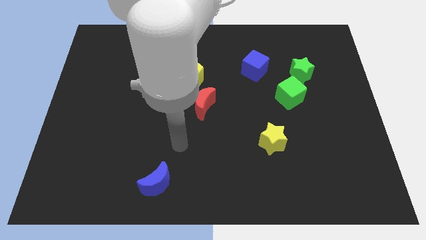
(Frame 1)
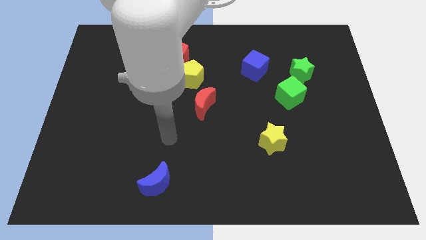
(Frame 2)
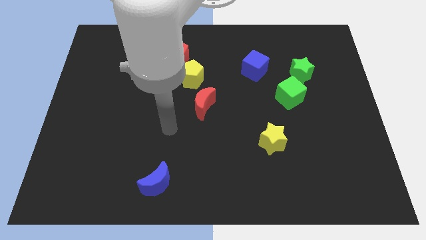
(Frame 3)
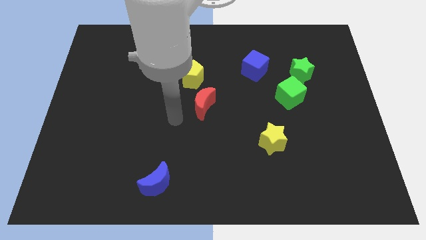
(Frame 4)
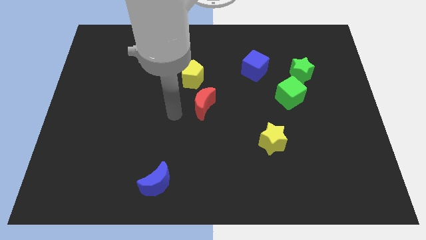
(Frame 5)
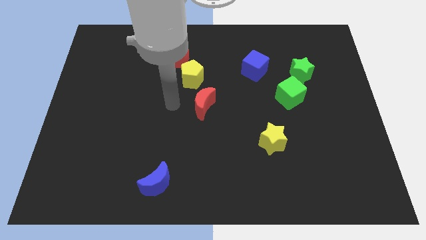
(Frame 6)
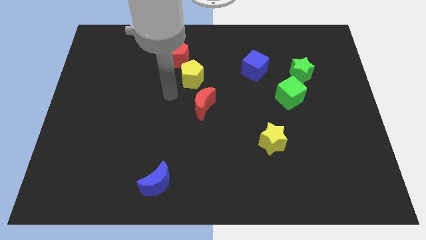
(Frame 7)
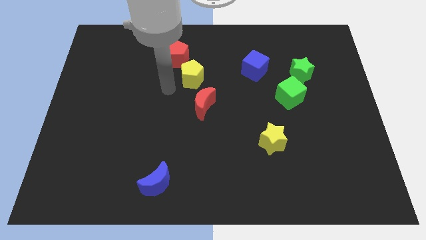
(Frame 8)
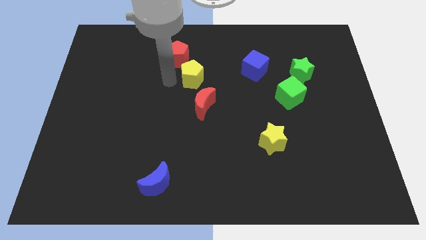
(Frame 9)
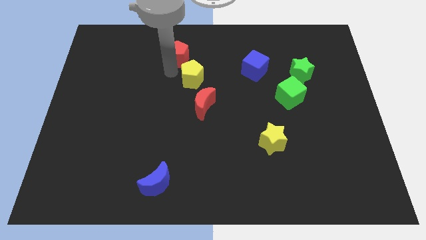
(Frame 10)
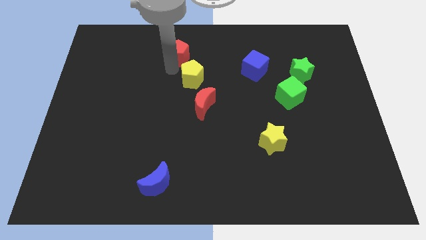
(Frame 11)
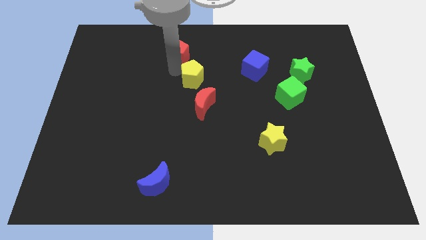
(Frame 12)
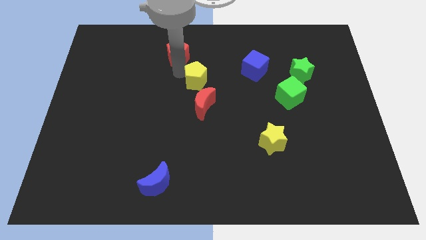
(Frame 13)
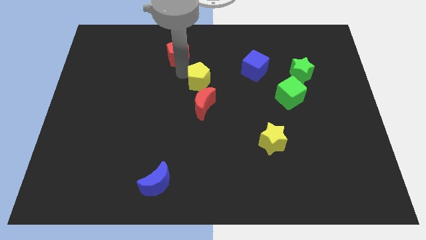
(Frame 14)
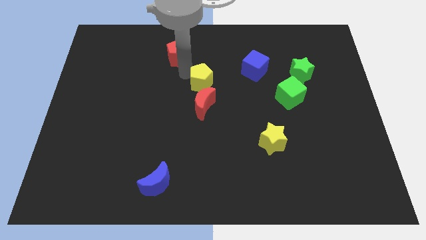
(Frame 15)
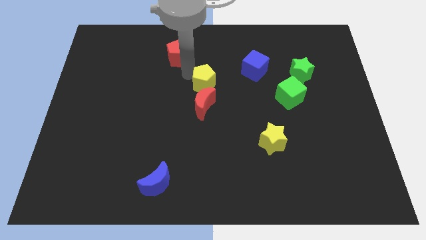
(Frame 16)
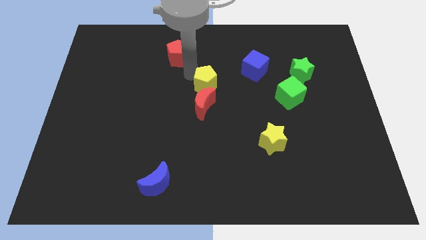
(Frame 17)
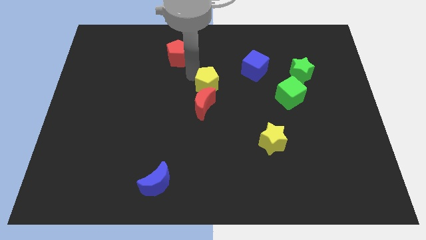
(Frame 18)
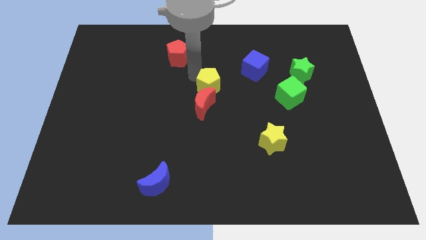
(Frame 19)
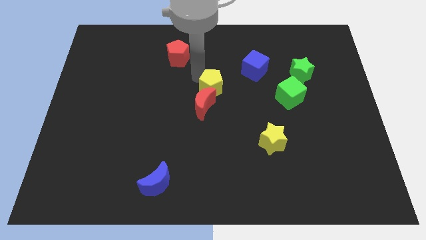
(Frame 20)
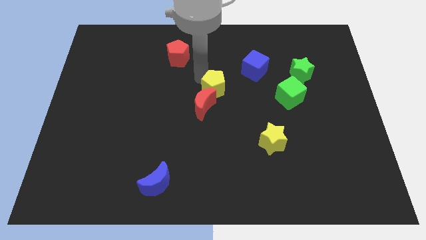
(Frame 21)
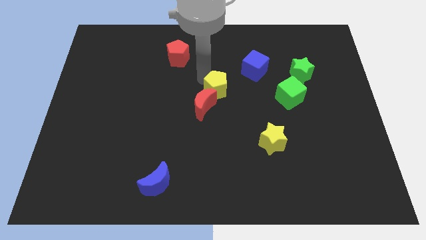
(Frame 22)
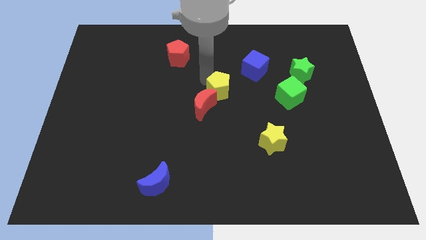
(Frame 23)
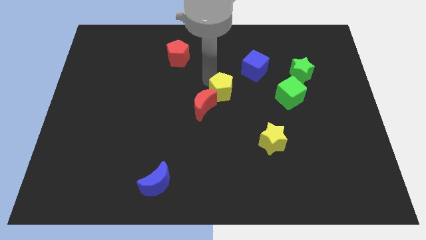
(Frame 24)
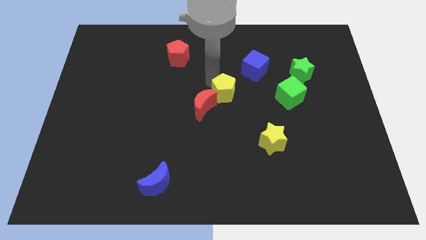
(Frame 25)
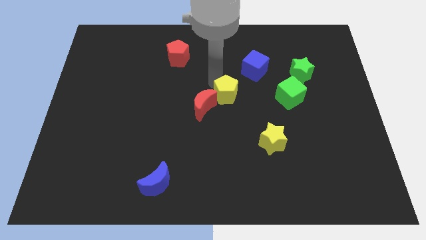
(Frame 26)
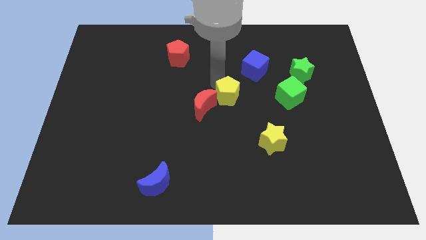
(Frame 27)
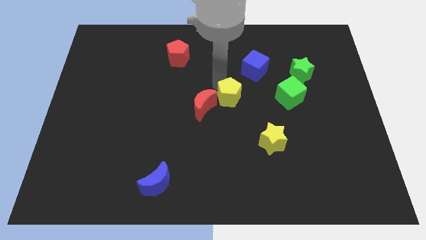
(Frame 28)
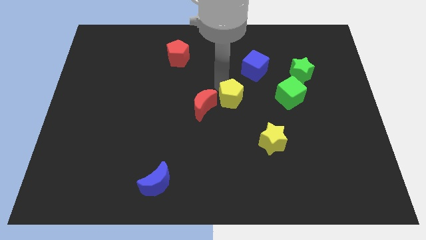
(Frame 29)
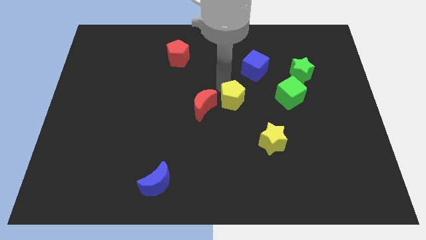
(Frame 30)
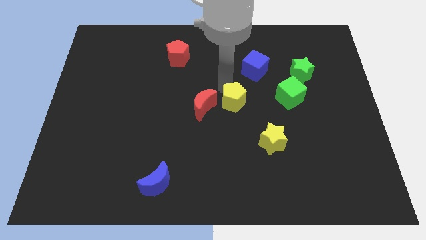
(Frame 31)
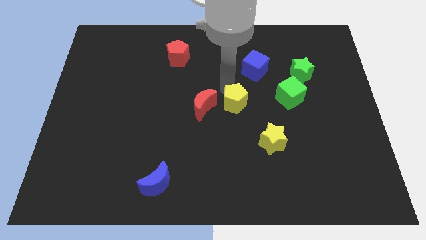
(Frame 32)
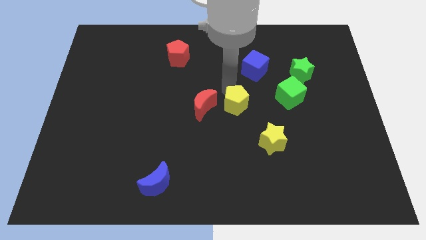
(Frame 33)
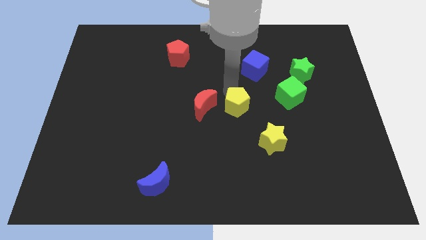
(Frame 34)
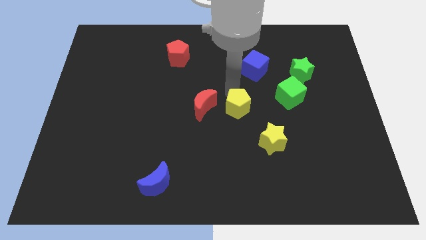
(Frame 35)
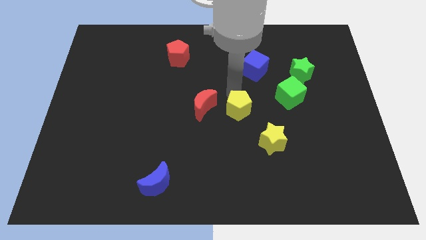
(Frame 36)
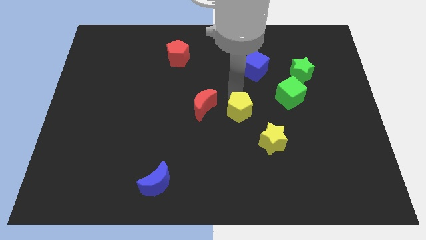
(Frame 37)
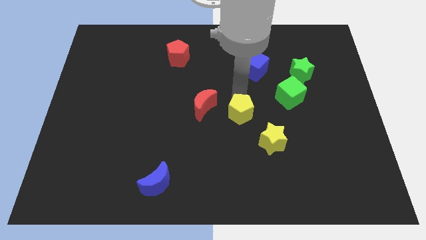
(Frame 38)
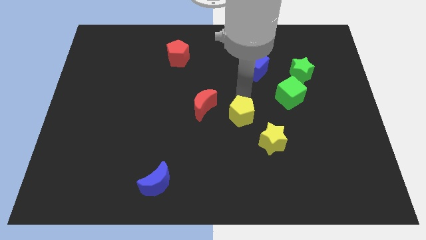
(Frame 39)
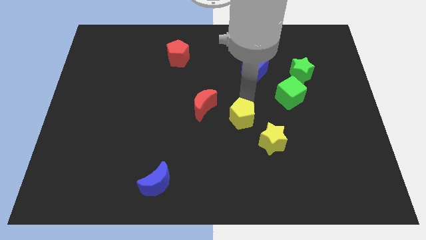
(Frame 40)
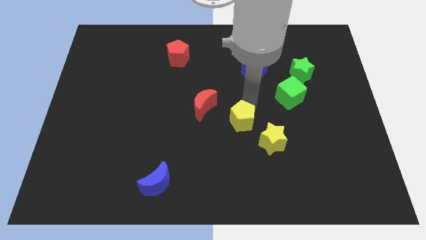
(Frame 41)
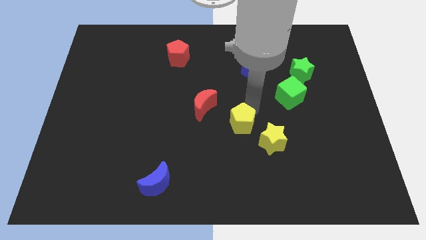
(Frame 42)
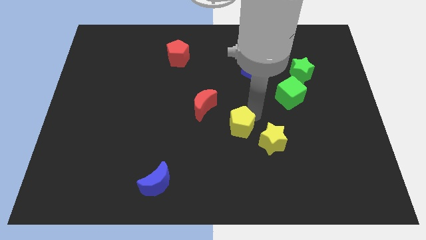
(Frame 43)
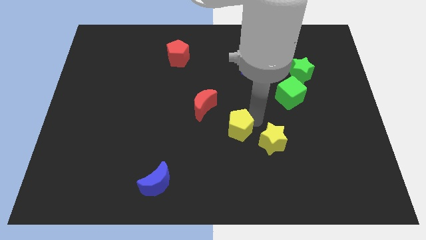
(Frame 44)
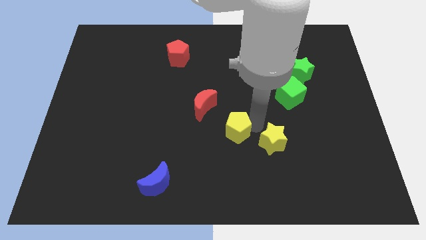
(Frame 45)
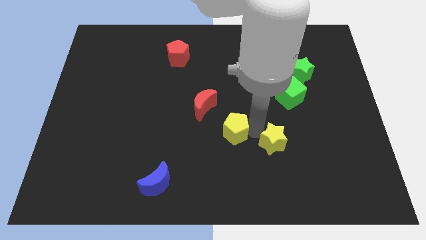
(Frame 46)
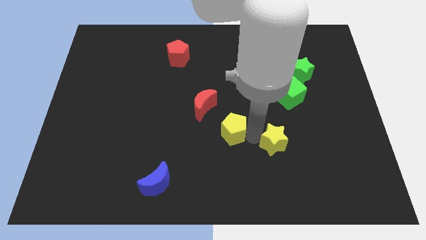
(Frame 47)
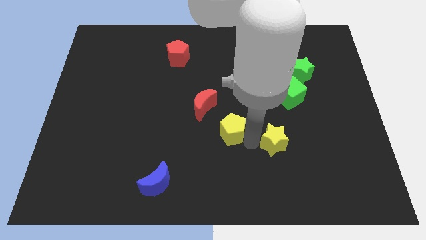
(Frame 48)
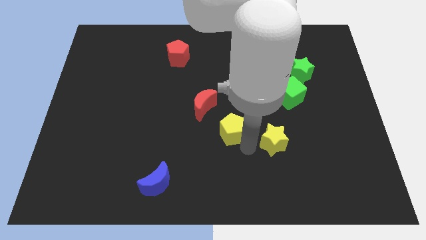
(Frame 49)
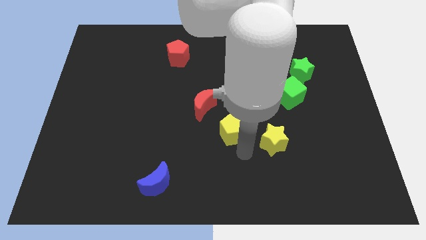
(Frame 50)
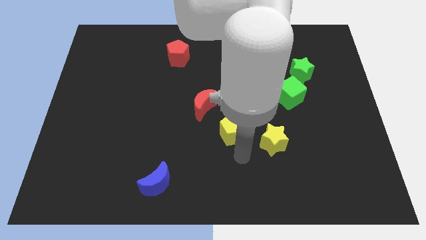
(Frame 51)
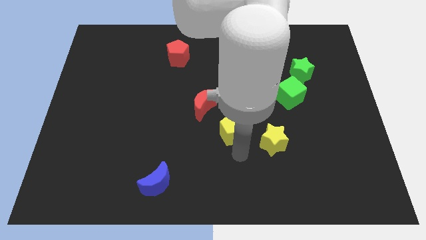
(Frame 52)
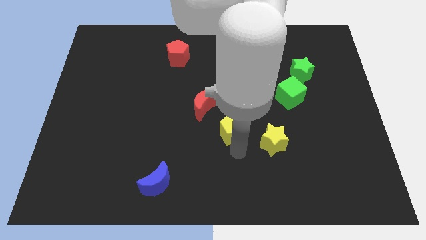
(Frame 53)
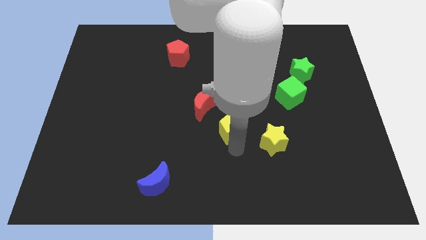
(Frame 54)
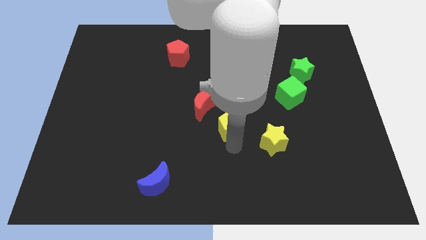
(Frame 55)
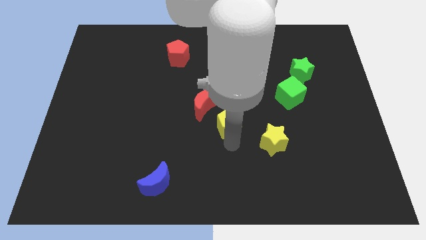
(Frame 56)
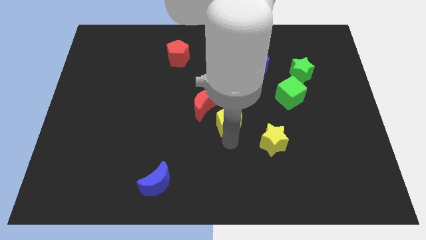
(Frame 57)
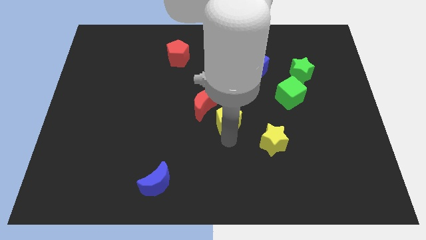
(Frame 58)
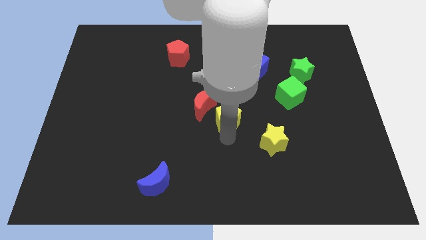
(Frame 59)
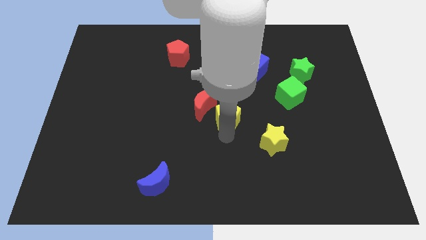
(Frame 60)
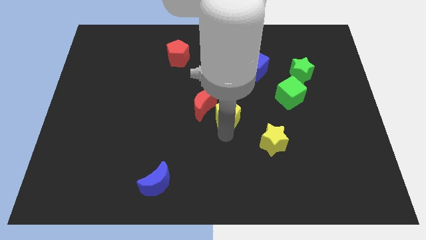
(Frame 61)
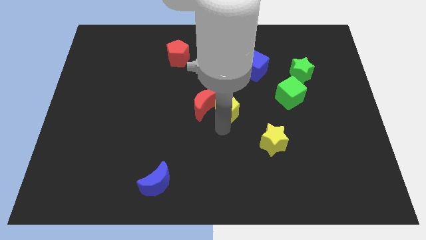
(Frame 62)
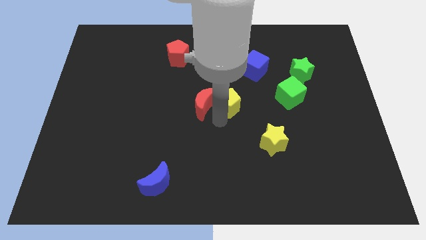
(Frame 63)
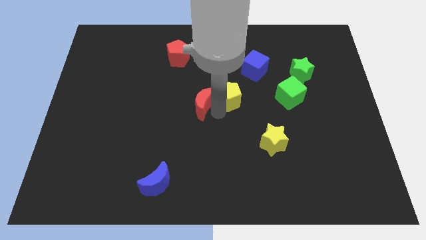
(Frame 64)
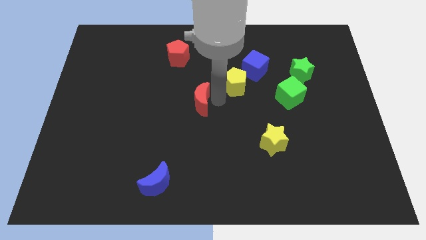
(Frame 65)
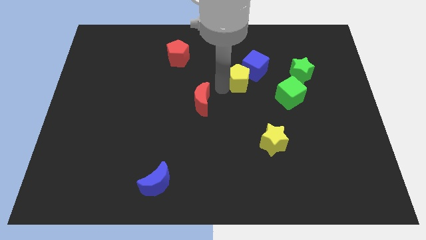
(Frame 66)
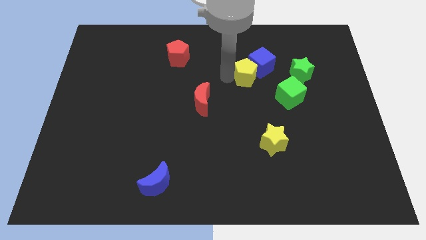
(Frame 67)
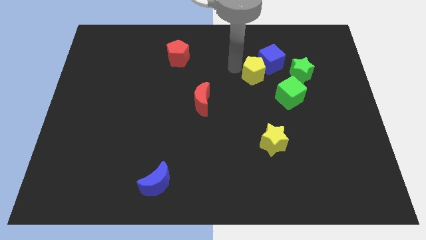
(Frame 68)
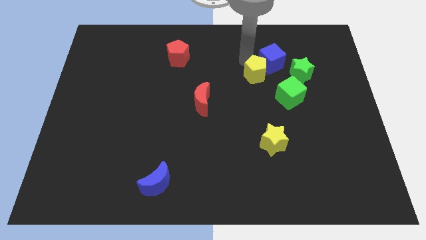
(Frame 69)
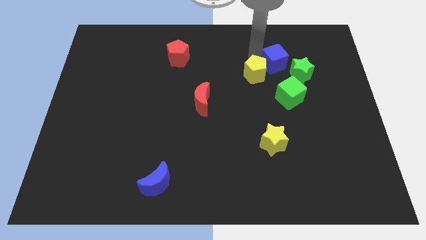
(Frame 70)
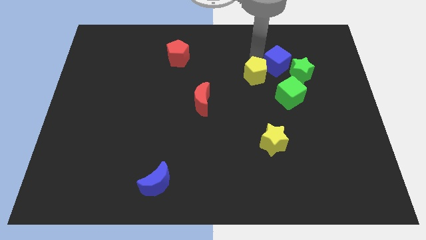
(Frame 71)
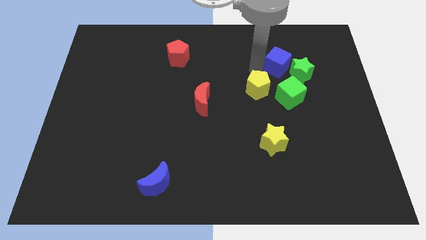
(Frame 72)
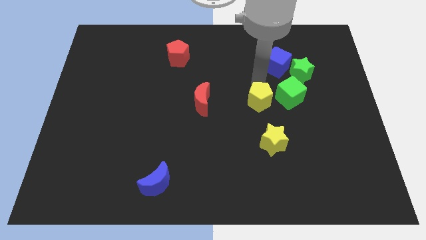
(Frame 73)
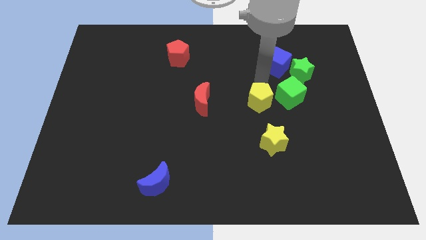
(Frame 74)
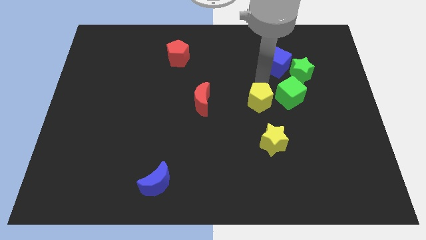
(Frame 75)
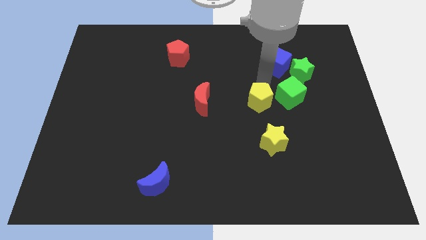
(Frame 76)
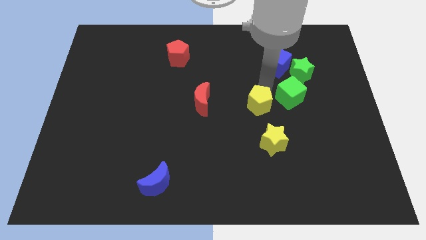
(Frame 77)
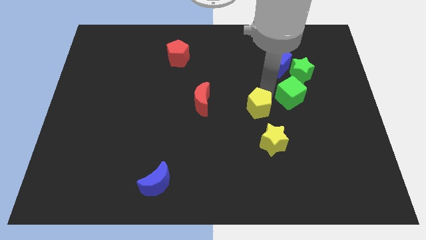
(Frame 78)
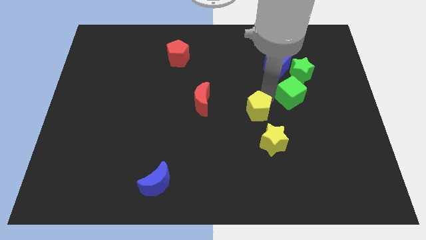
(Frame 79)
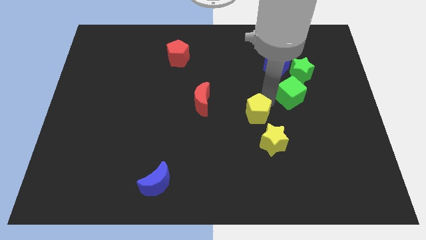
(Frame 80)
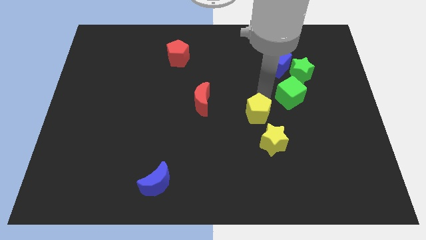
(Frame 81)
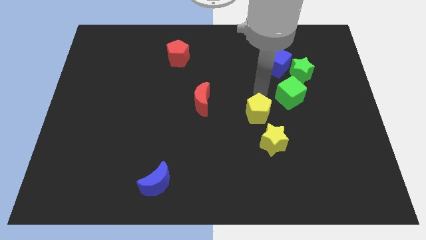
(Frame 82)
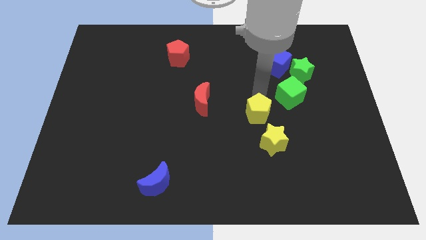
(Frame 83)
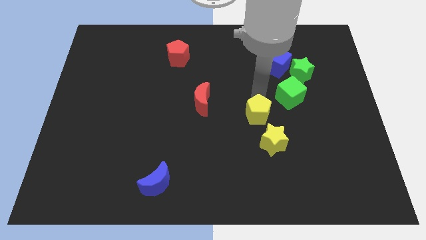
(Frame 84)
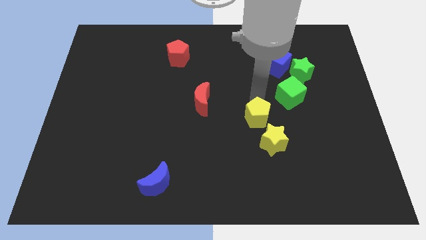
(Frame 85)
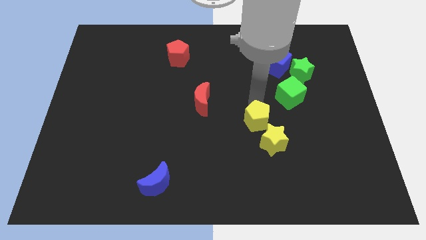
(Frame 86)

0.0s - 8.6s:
push the yellow pentagon diagonally down and right
